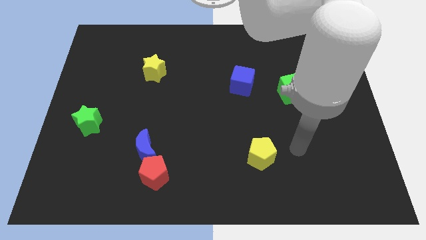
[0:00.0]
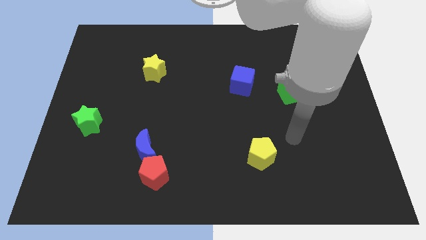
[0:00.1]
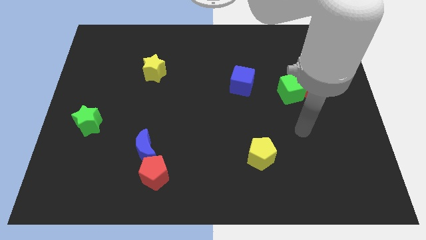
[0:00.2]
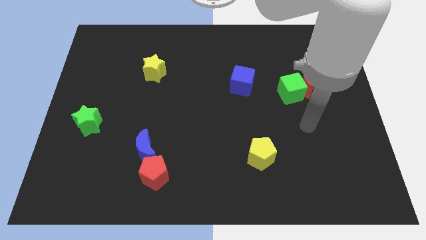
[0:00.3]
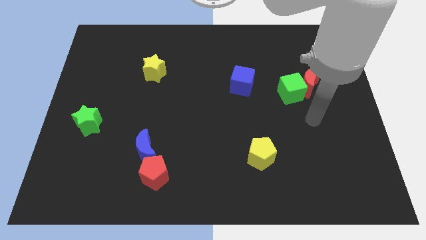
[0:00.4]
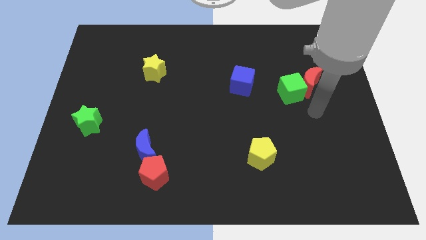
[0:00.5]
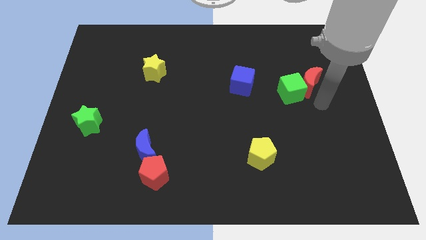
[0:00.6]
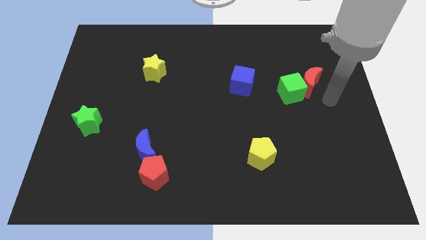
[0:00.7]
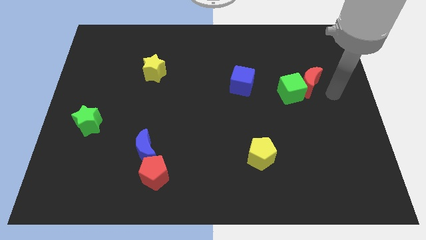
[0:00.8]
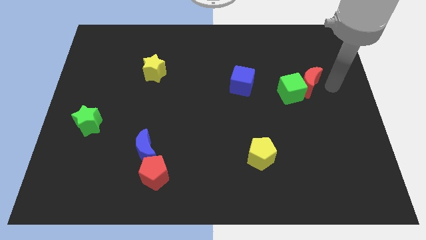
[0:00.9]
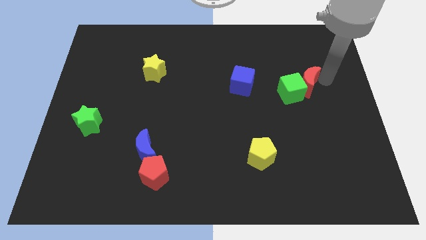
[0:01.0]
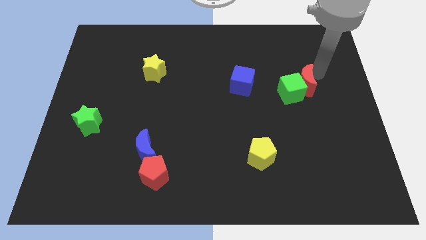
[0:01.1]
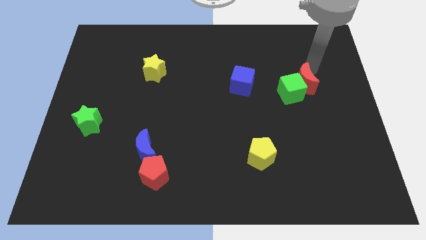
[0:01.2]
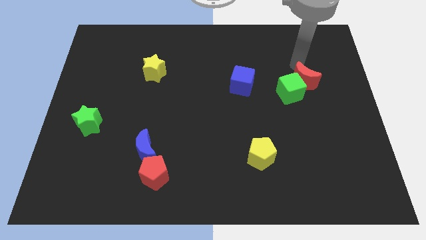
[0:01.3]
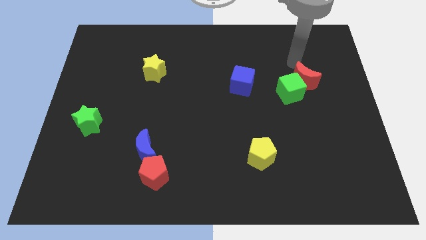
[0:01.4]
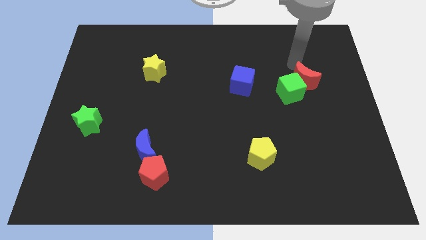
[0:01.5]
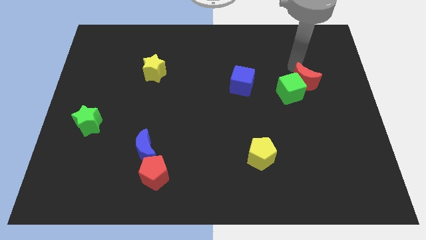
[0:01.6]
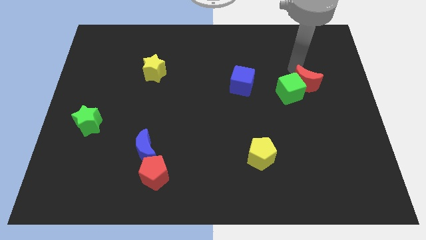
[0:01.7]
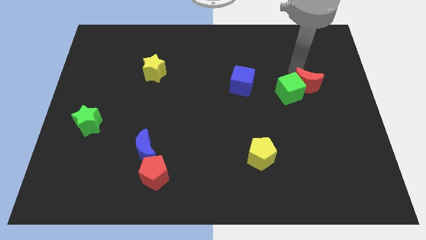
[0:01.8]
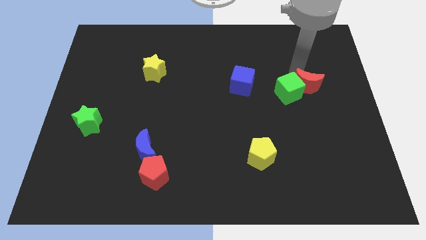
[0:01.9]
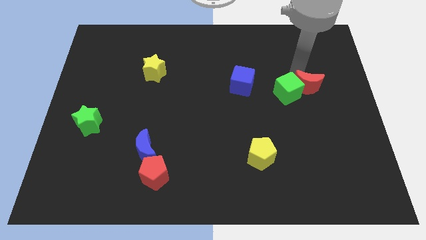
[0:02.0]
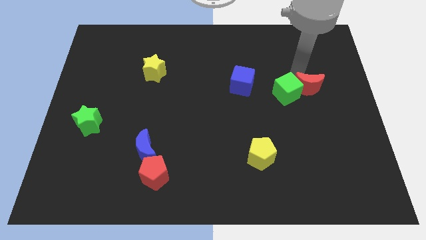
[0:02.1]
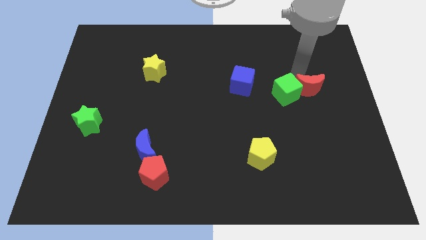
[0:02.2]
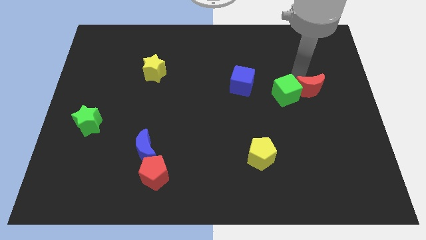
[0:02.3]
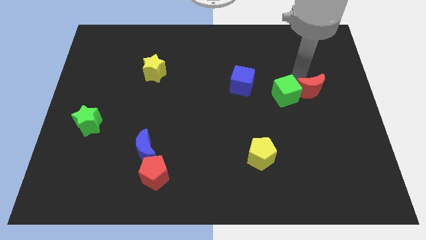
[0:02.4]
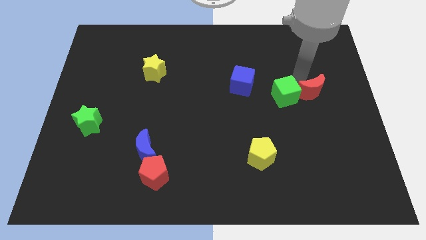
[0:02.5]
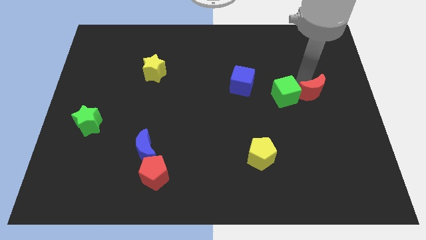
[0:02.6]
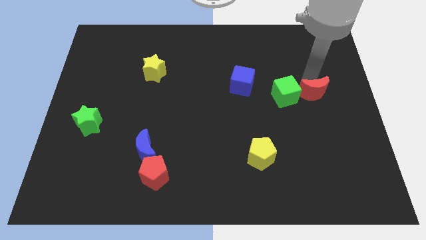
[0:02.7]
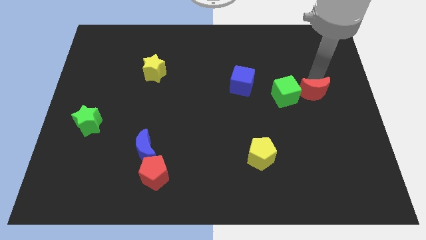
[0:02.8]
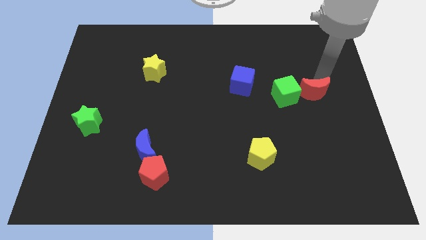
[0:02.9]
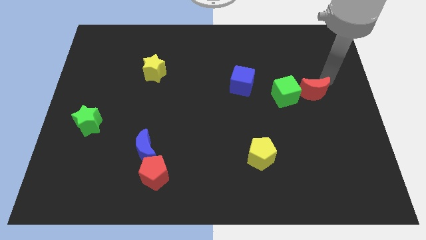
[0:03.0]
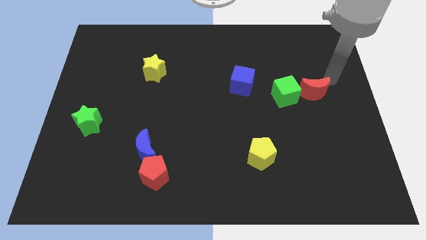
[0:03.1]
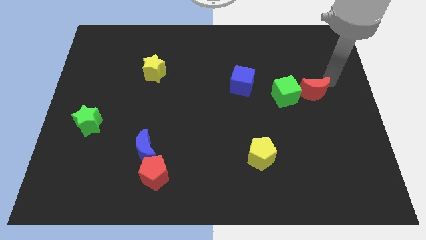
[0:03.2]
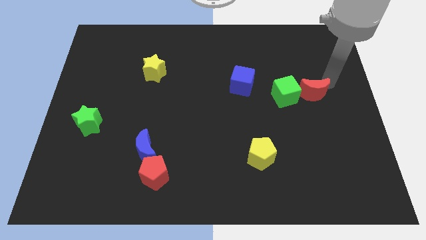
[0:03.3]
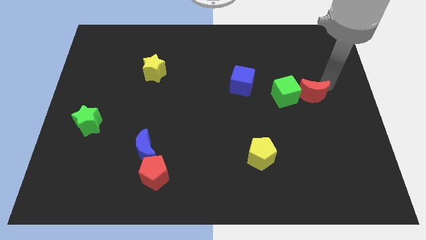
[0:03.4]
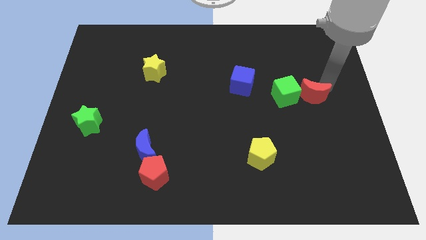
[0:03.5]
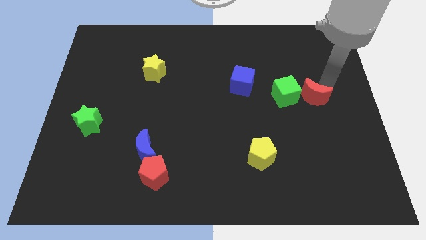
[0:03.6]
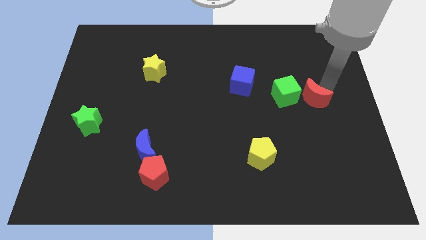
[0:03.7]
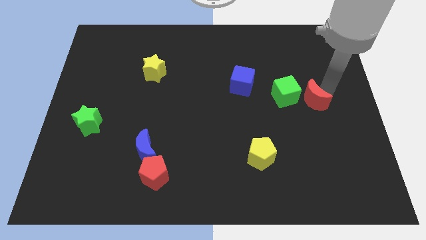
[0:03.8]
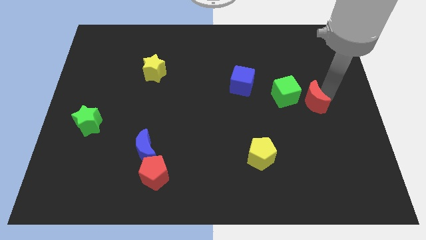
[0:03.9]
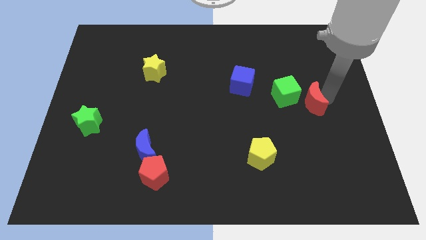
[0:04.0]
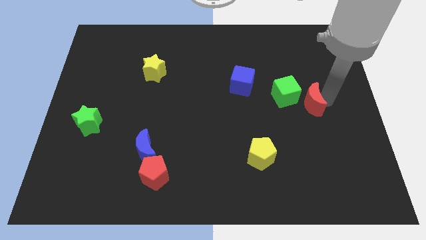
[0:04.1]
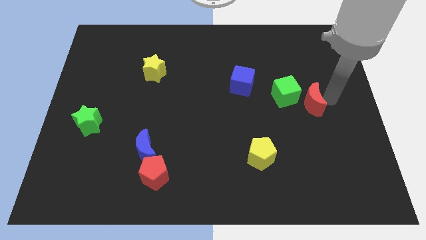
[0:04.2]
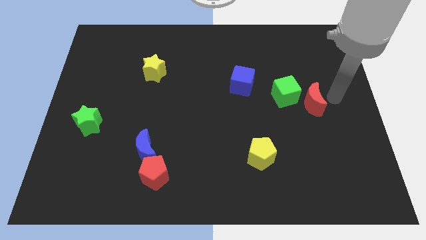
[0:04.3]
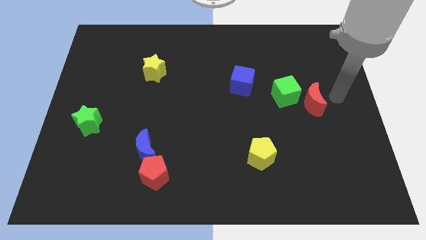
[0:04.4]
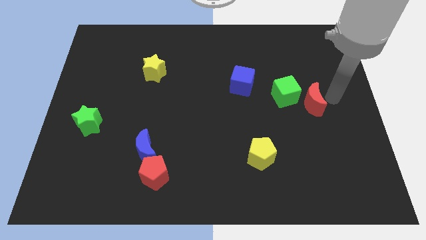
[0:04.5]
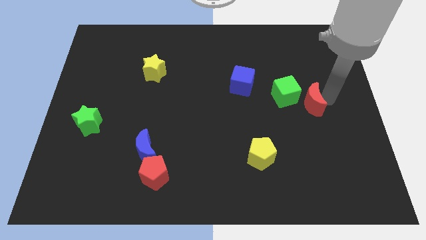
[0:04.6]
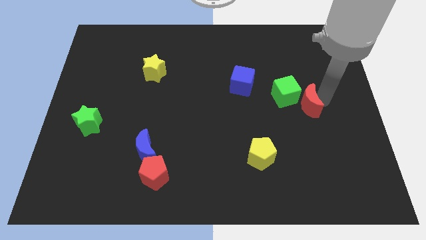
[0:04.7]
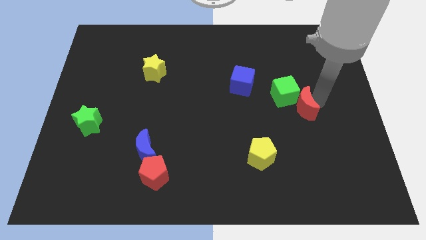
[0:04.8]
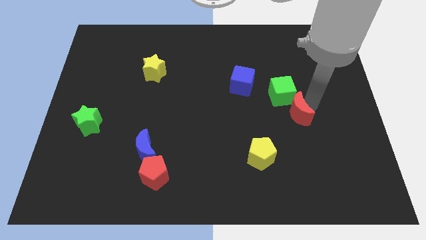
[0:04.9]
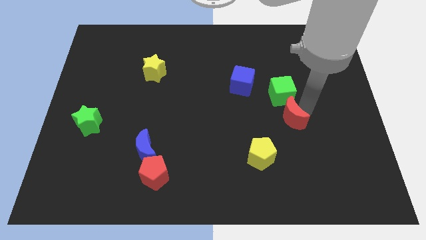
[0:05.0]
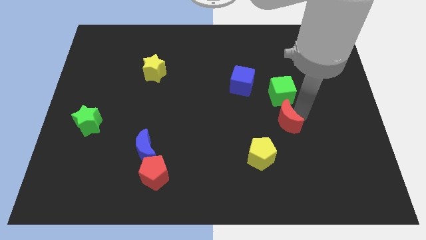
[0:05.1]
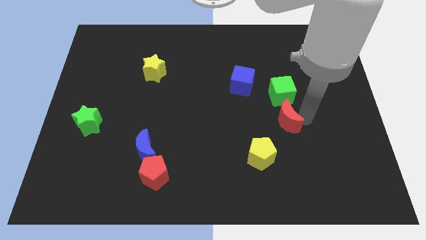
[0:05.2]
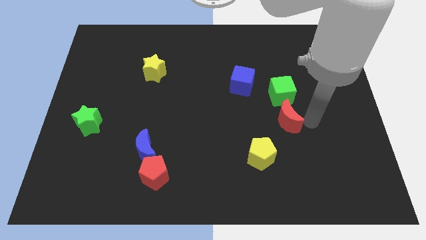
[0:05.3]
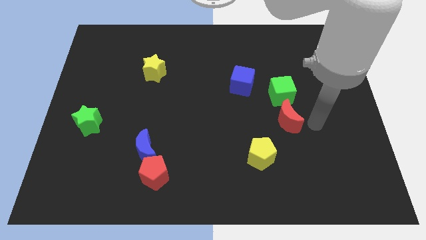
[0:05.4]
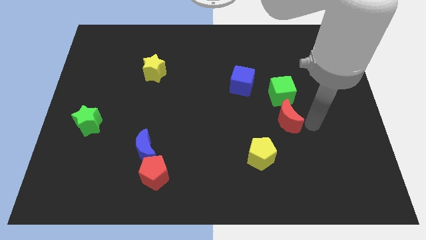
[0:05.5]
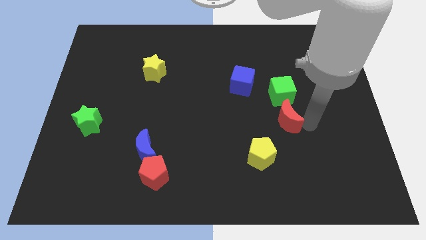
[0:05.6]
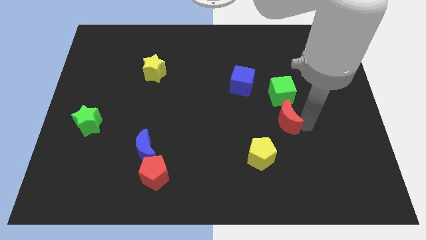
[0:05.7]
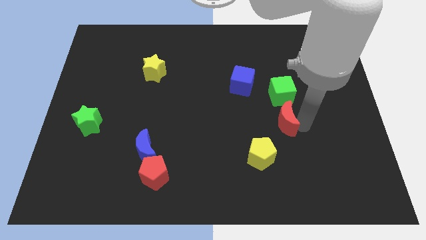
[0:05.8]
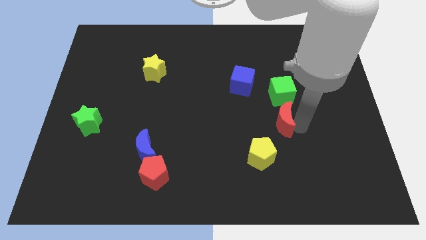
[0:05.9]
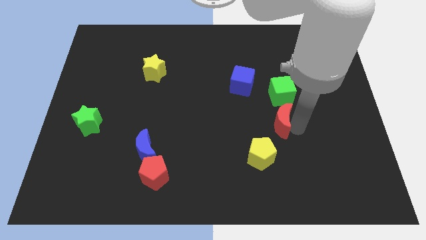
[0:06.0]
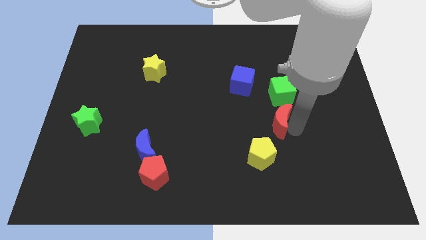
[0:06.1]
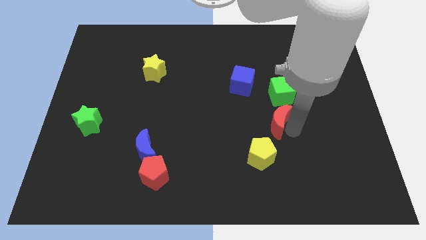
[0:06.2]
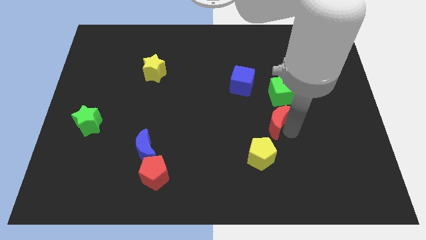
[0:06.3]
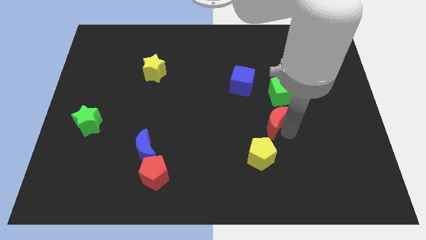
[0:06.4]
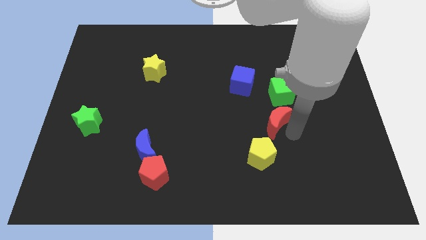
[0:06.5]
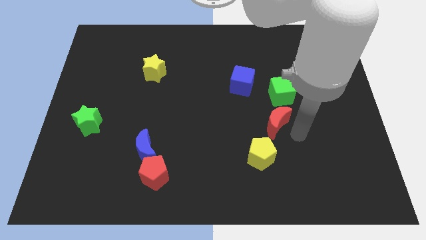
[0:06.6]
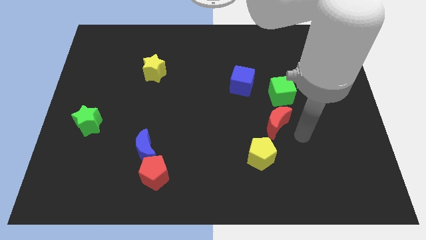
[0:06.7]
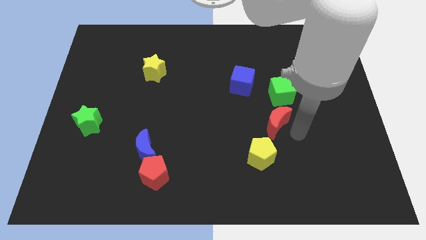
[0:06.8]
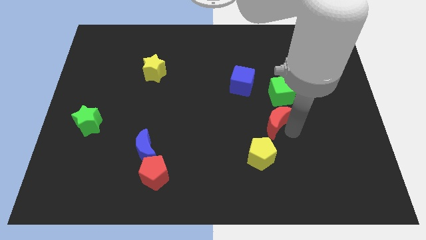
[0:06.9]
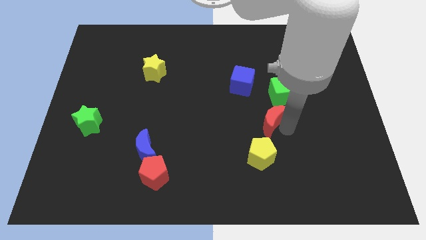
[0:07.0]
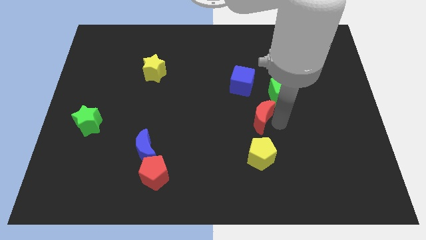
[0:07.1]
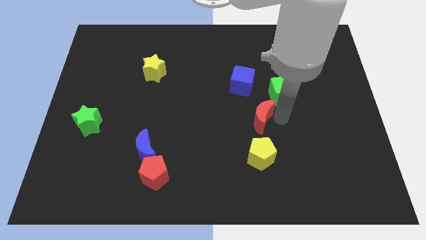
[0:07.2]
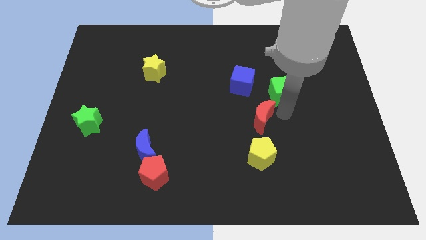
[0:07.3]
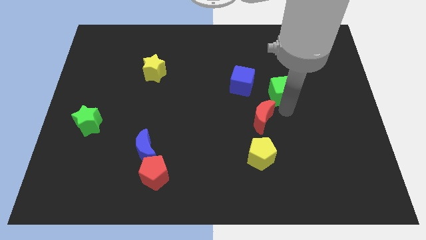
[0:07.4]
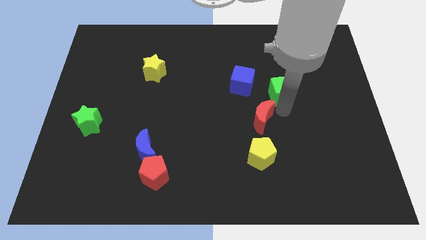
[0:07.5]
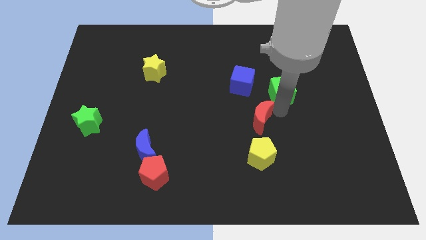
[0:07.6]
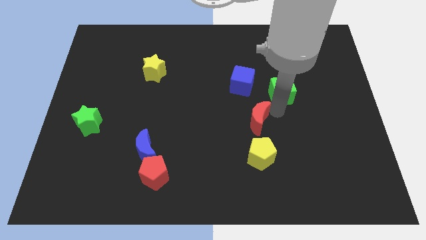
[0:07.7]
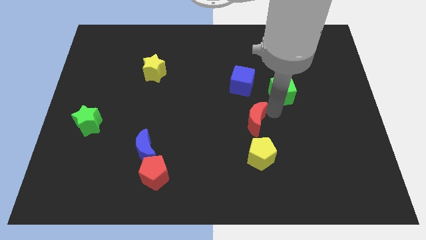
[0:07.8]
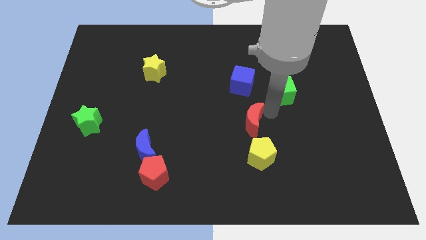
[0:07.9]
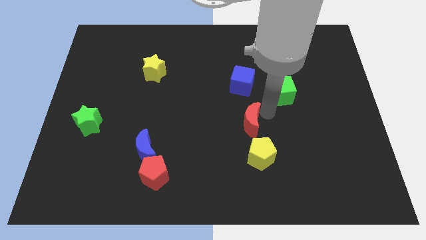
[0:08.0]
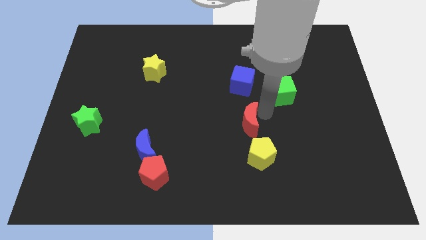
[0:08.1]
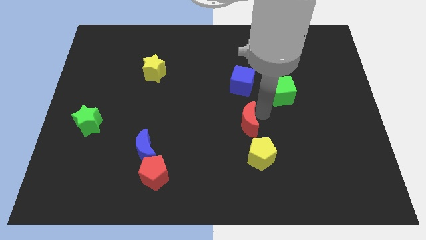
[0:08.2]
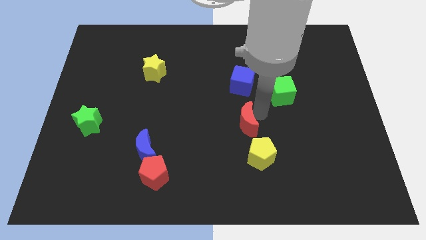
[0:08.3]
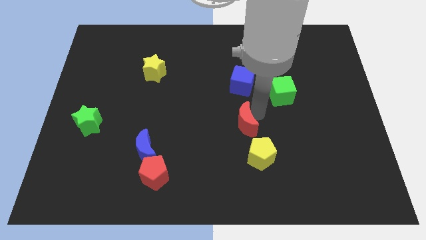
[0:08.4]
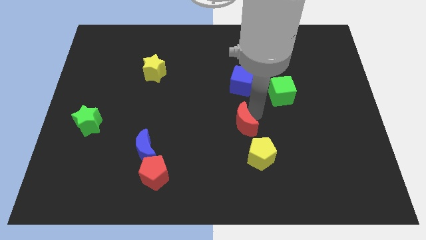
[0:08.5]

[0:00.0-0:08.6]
move the red moon downwards and then left
